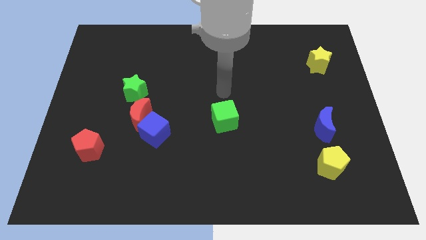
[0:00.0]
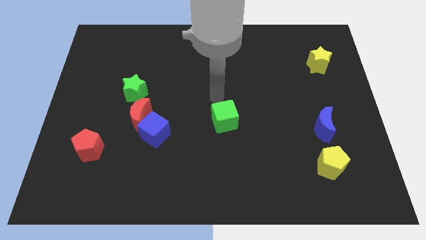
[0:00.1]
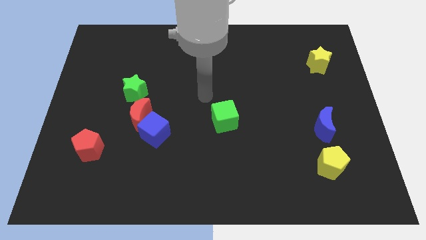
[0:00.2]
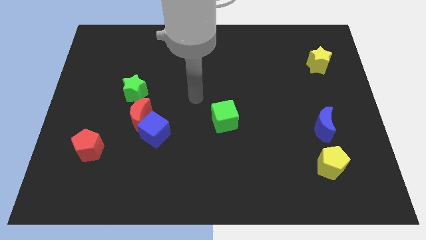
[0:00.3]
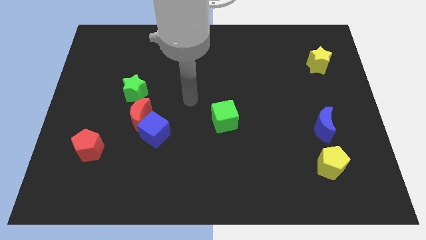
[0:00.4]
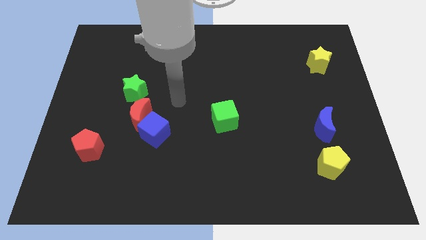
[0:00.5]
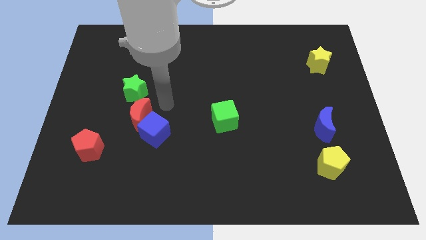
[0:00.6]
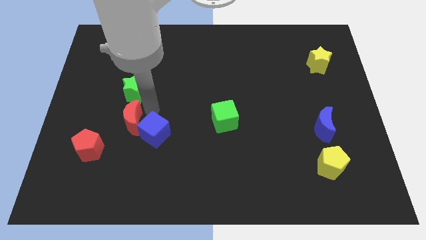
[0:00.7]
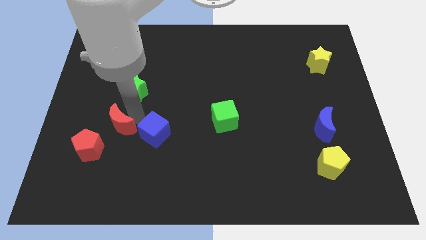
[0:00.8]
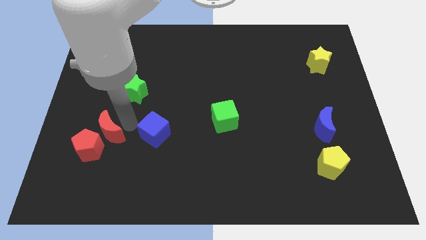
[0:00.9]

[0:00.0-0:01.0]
pull the blue cube apart from the red moon

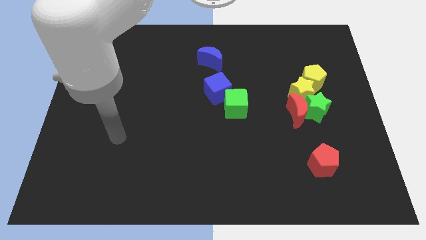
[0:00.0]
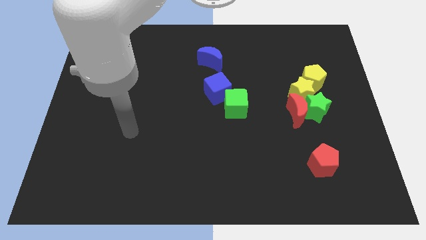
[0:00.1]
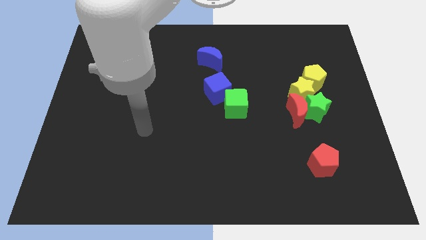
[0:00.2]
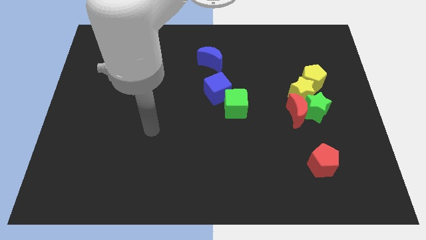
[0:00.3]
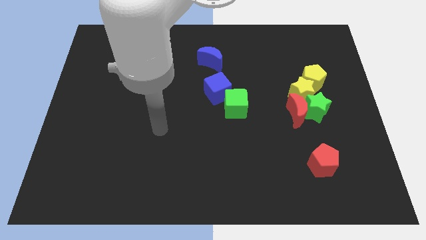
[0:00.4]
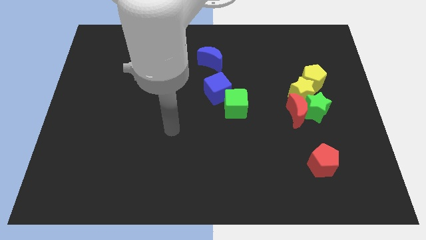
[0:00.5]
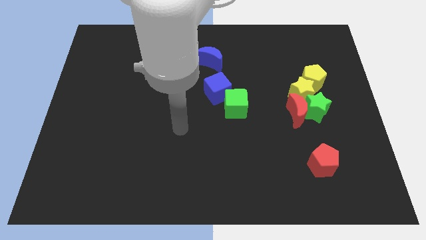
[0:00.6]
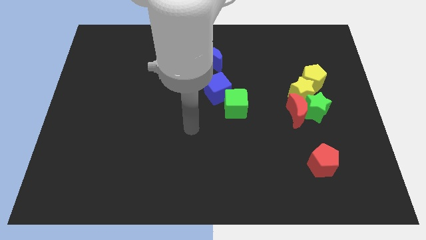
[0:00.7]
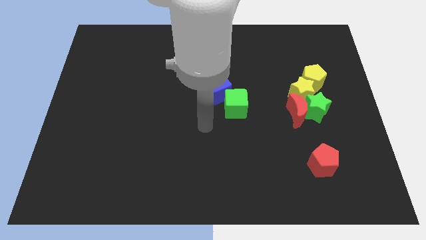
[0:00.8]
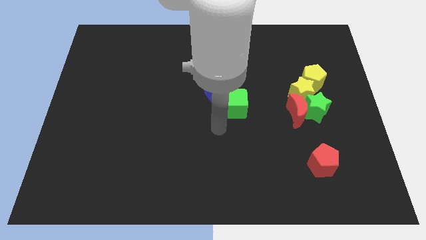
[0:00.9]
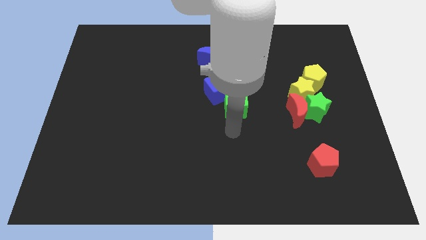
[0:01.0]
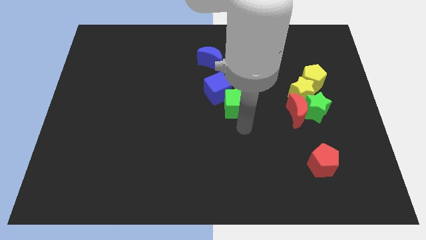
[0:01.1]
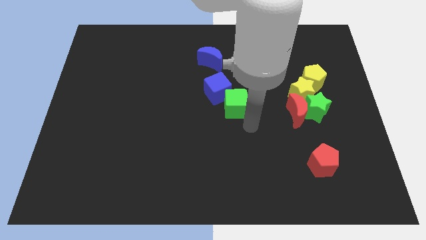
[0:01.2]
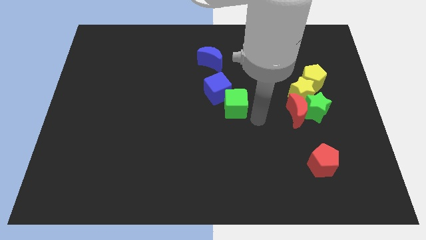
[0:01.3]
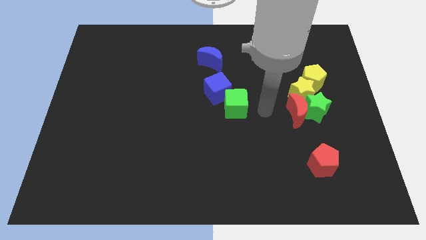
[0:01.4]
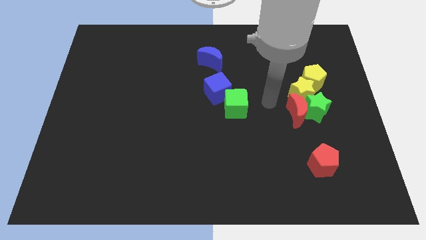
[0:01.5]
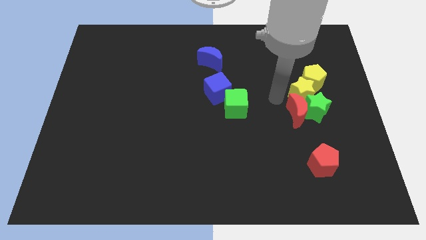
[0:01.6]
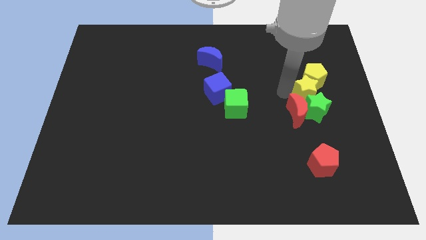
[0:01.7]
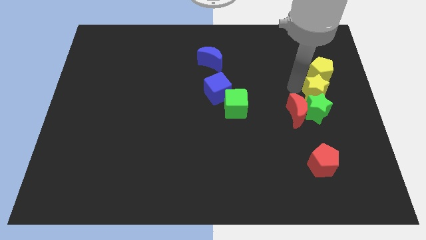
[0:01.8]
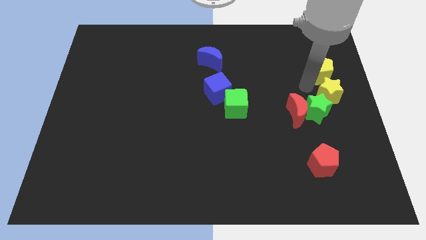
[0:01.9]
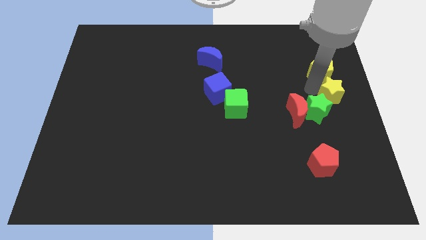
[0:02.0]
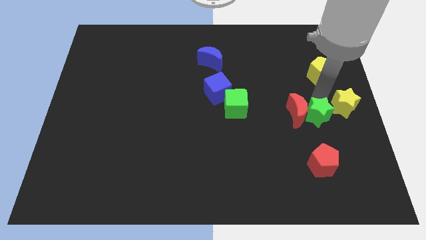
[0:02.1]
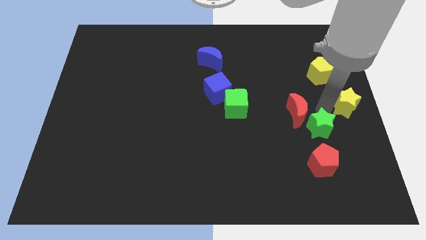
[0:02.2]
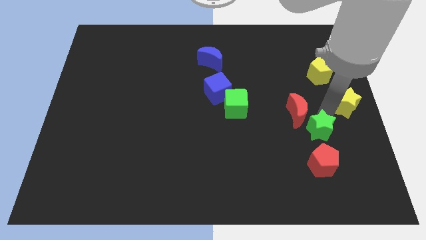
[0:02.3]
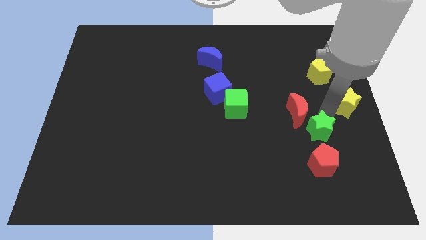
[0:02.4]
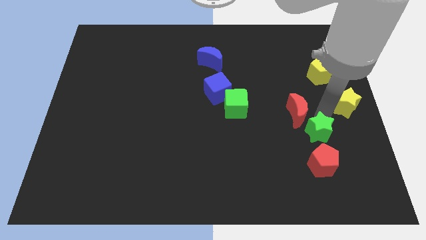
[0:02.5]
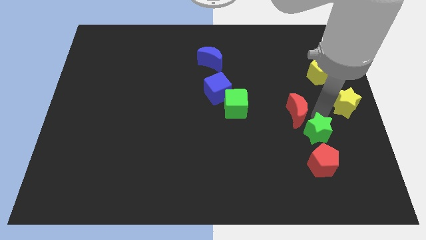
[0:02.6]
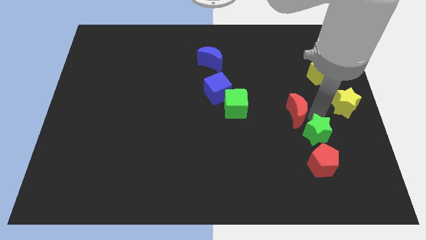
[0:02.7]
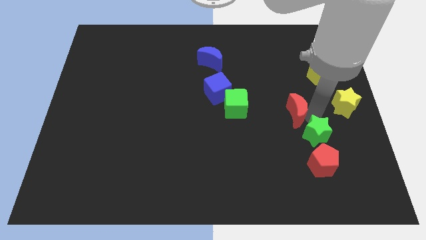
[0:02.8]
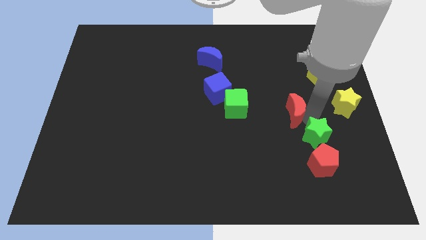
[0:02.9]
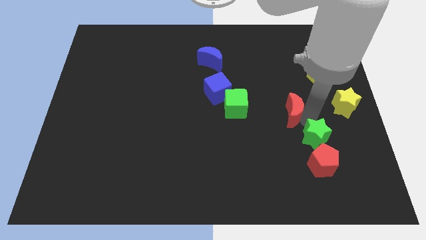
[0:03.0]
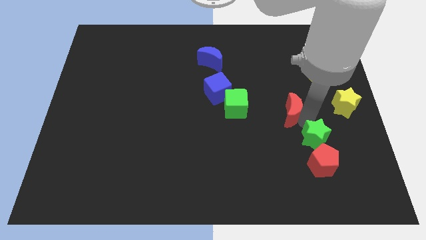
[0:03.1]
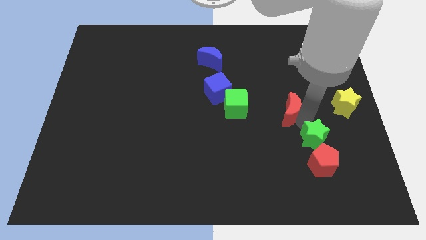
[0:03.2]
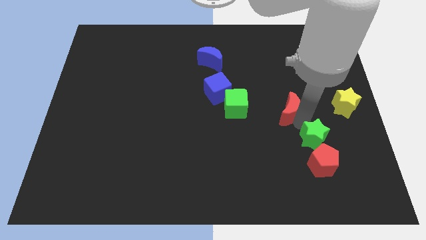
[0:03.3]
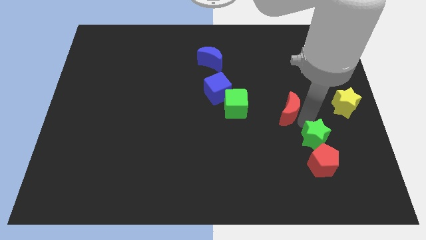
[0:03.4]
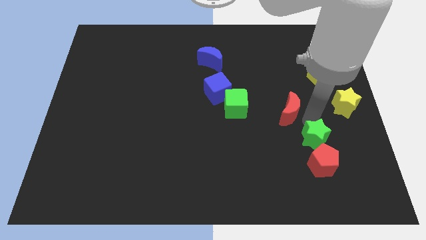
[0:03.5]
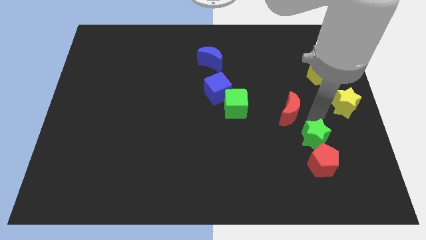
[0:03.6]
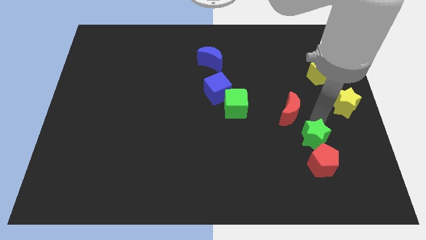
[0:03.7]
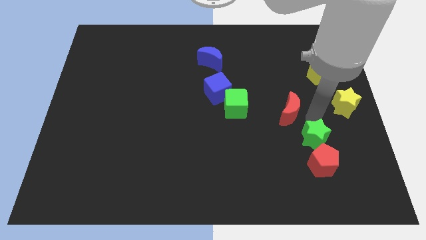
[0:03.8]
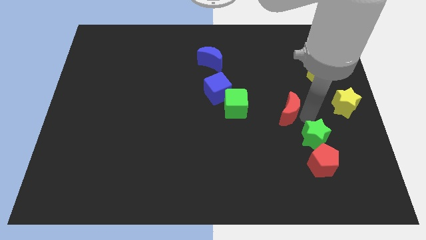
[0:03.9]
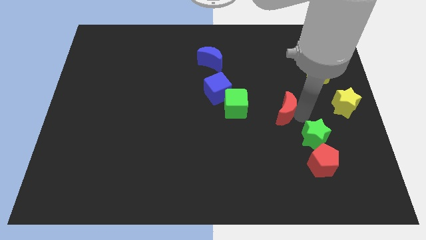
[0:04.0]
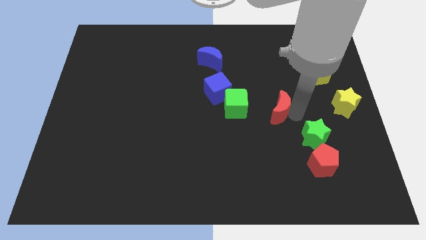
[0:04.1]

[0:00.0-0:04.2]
separate the red moon from the green star and yellow star

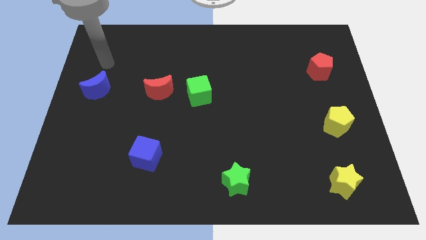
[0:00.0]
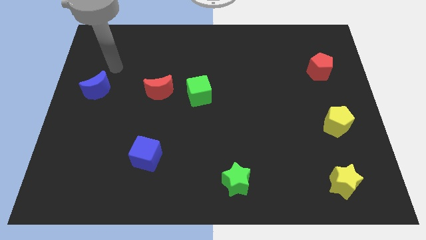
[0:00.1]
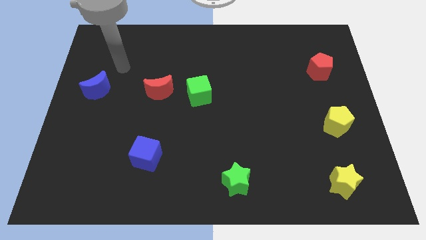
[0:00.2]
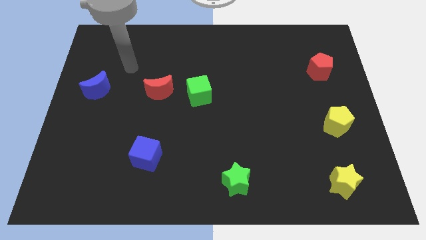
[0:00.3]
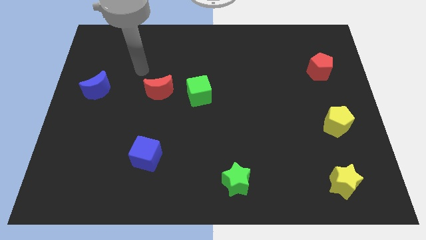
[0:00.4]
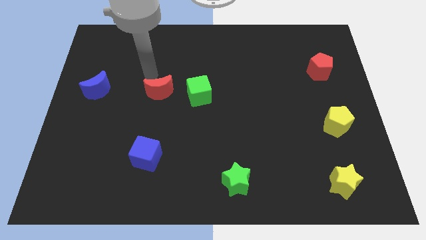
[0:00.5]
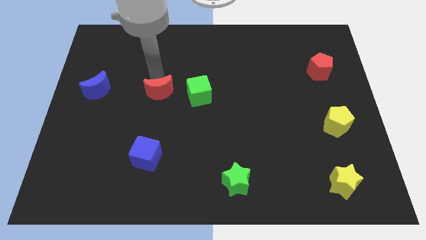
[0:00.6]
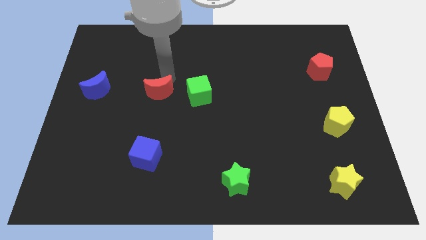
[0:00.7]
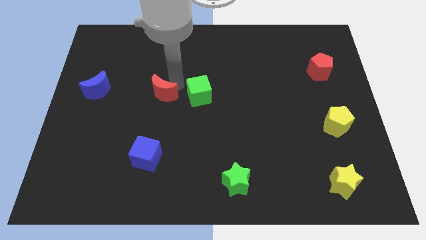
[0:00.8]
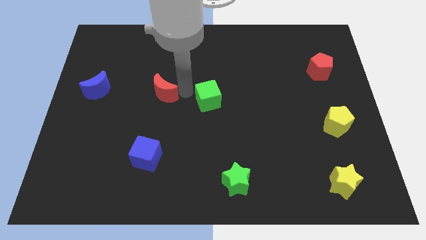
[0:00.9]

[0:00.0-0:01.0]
separate the red moon from the green cube

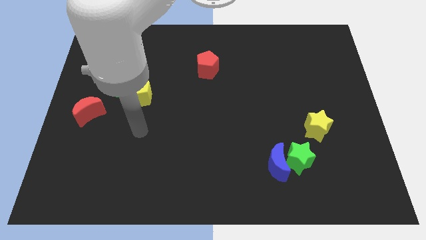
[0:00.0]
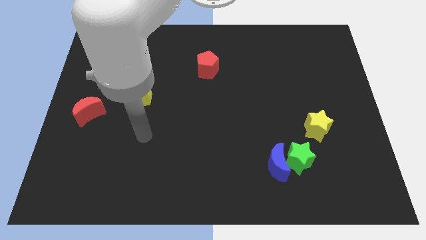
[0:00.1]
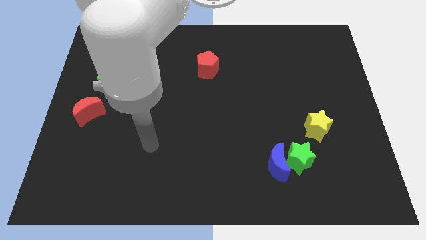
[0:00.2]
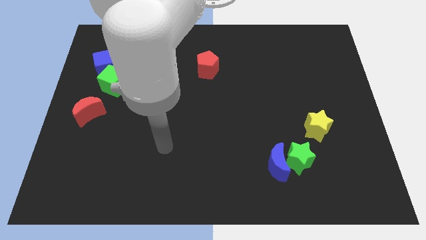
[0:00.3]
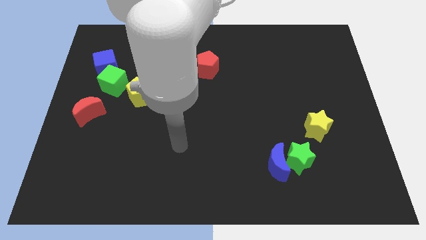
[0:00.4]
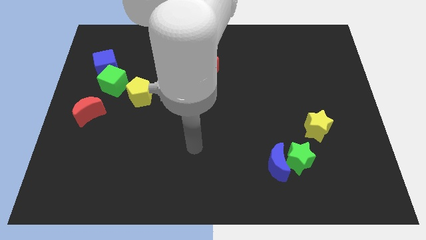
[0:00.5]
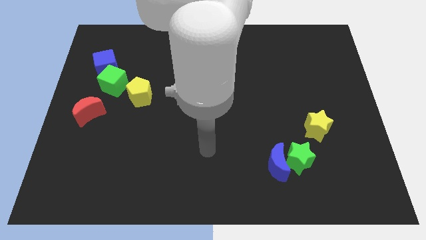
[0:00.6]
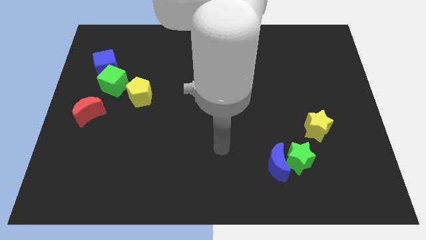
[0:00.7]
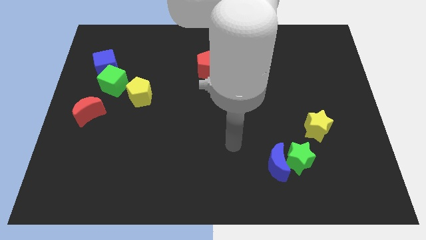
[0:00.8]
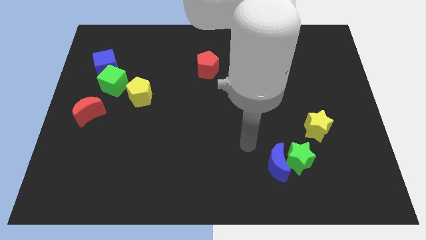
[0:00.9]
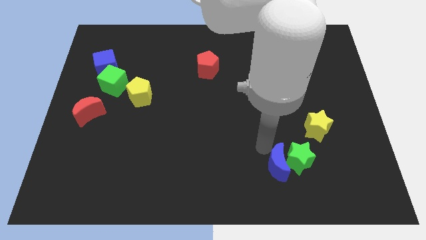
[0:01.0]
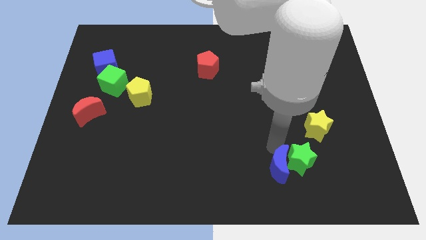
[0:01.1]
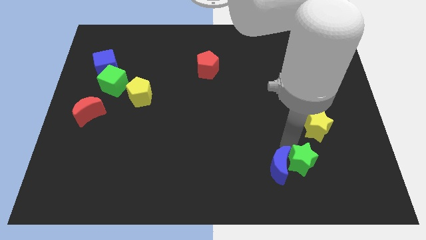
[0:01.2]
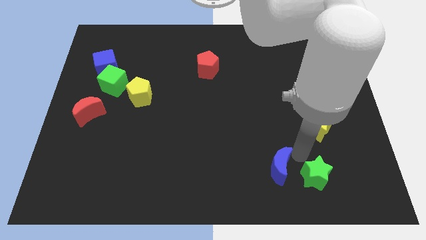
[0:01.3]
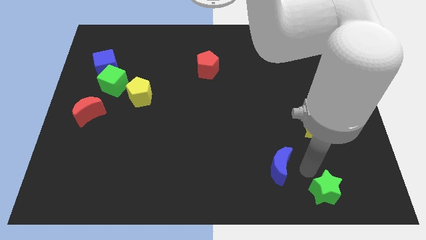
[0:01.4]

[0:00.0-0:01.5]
pull the blue moon apart from the green star

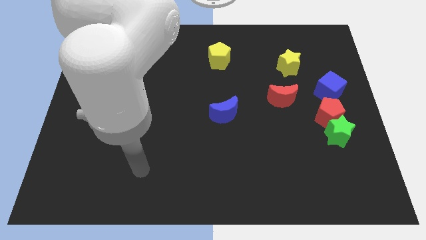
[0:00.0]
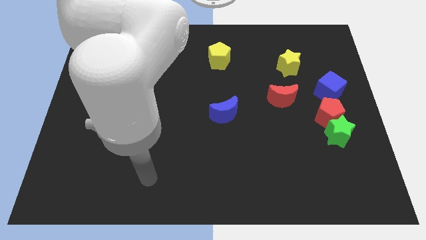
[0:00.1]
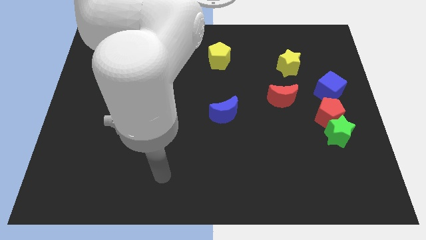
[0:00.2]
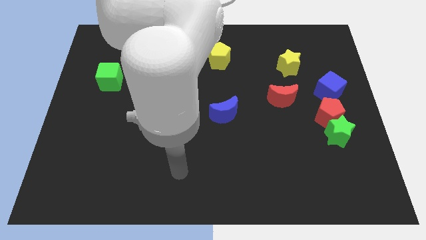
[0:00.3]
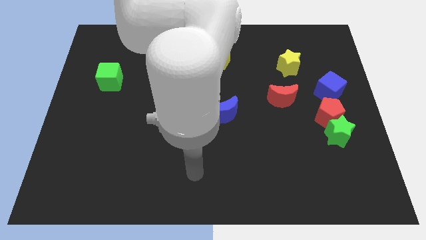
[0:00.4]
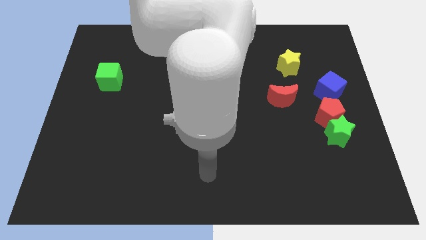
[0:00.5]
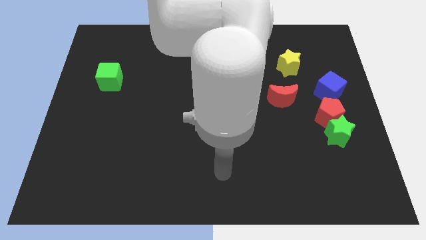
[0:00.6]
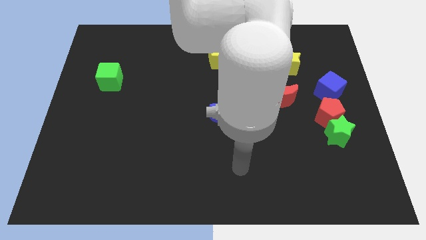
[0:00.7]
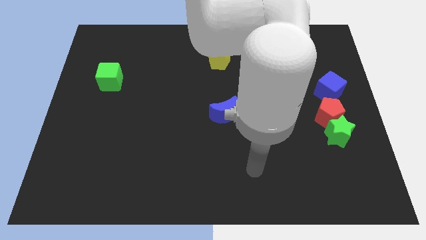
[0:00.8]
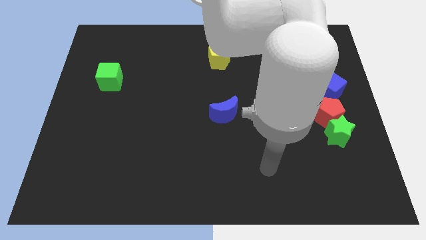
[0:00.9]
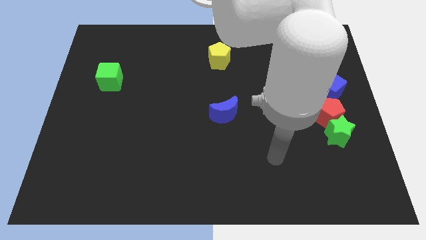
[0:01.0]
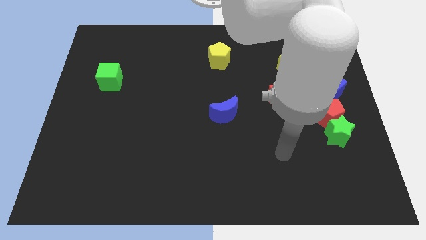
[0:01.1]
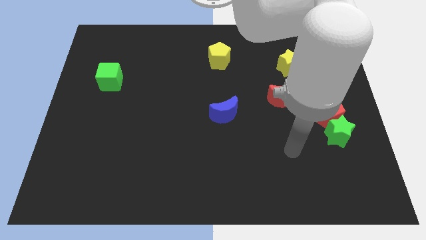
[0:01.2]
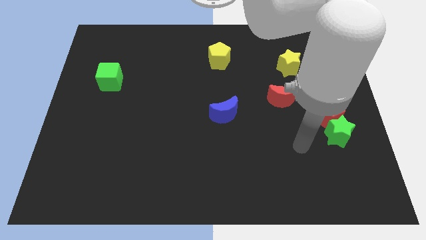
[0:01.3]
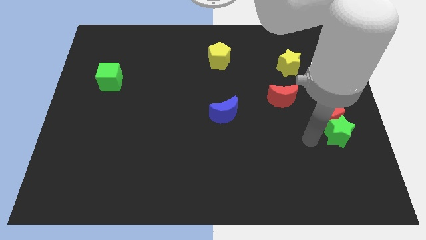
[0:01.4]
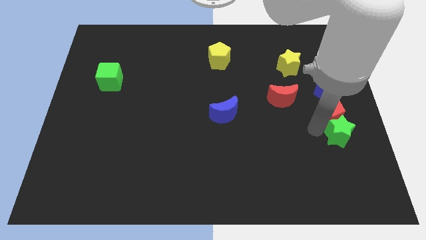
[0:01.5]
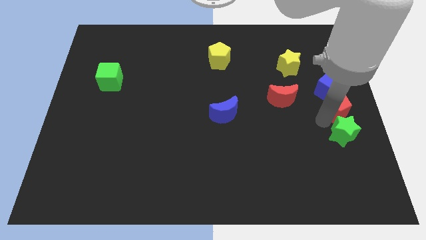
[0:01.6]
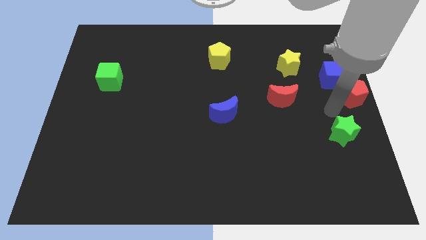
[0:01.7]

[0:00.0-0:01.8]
move the green star away from the red pentagon
